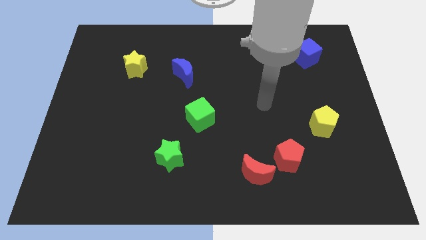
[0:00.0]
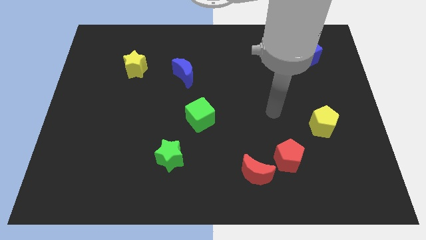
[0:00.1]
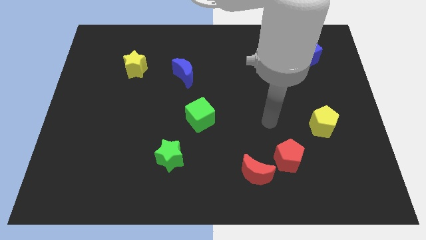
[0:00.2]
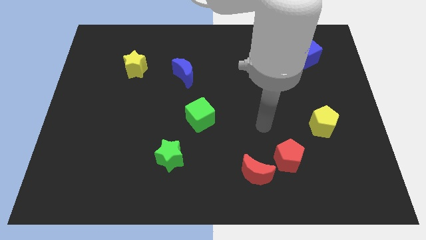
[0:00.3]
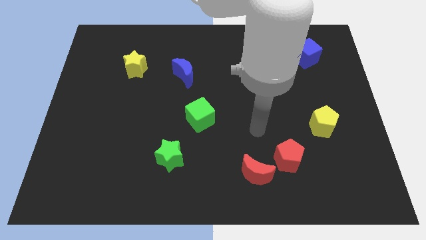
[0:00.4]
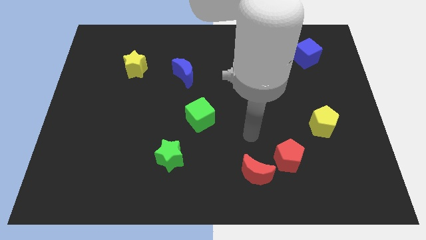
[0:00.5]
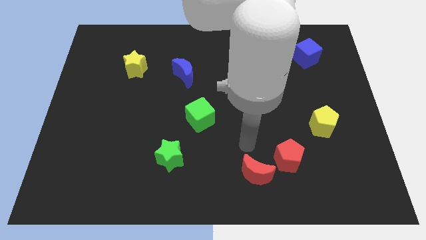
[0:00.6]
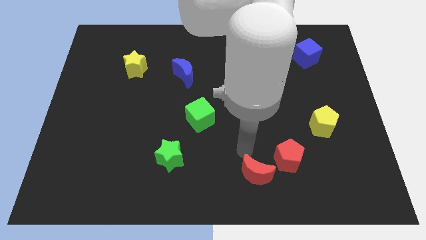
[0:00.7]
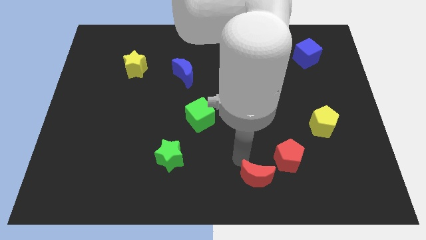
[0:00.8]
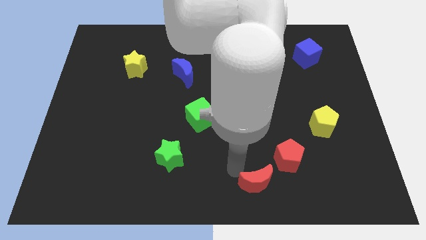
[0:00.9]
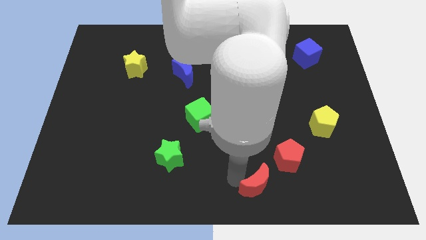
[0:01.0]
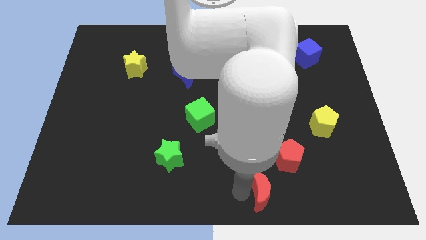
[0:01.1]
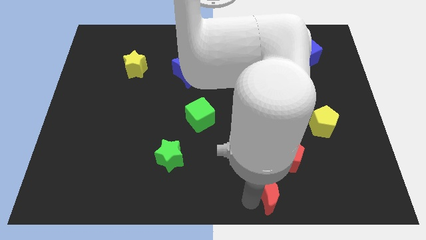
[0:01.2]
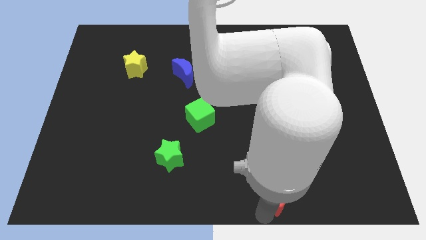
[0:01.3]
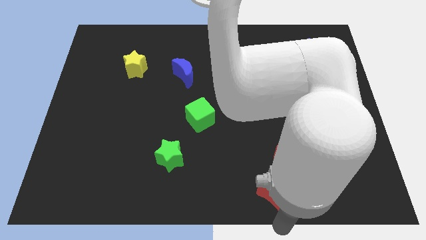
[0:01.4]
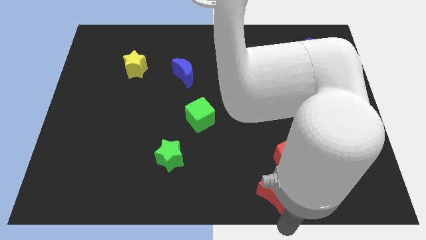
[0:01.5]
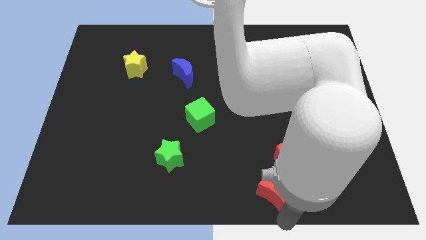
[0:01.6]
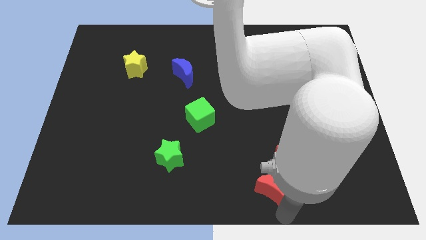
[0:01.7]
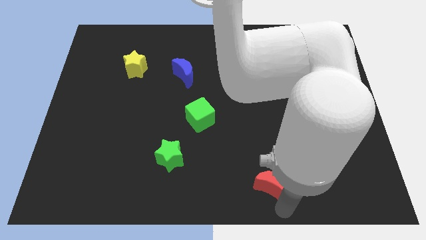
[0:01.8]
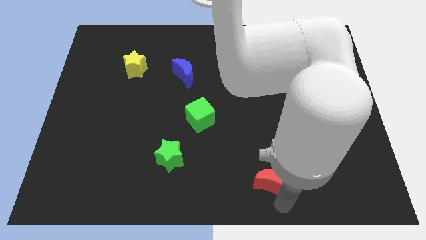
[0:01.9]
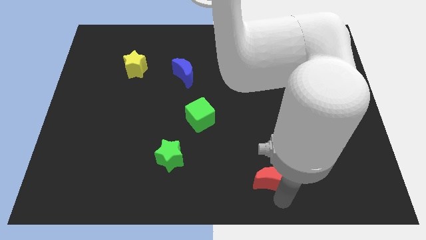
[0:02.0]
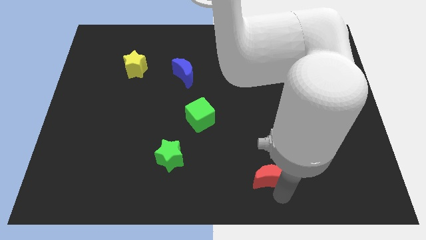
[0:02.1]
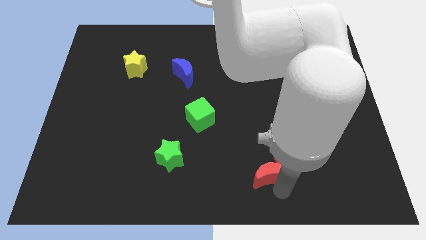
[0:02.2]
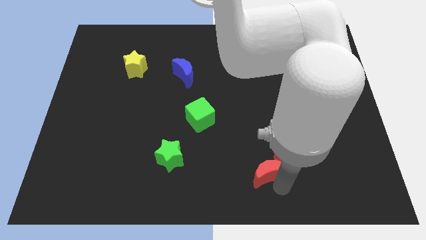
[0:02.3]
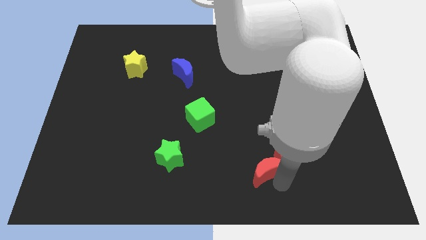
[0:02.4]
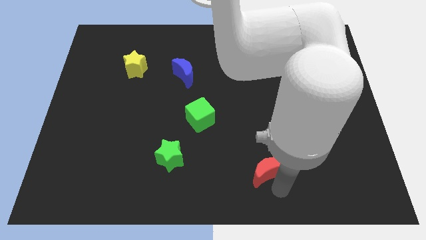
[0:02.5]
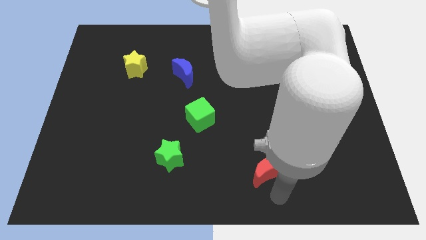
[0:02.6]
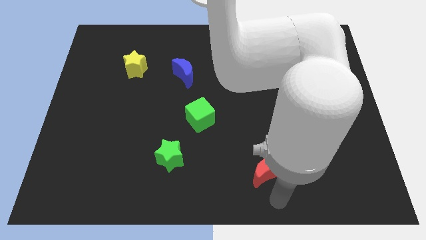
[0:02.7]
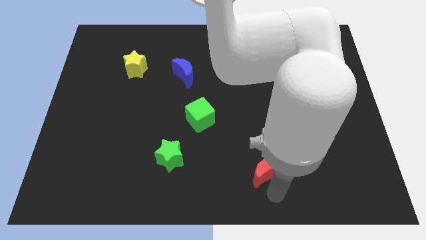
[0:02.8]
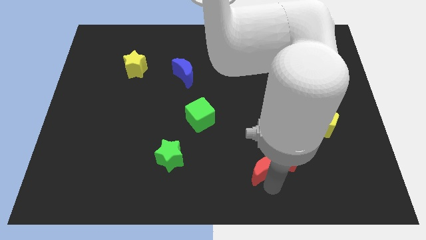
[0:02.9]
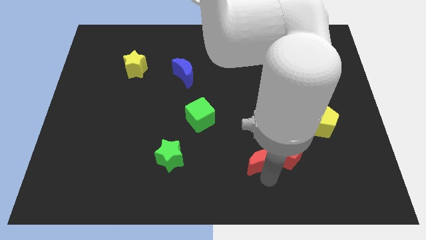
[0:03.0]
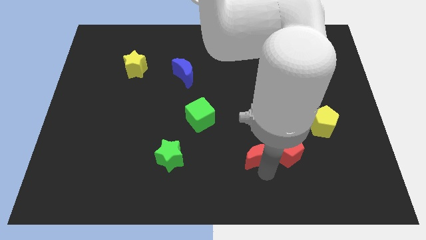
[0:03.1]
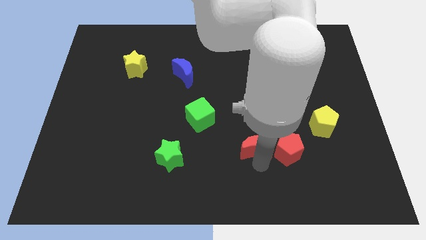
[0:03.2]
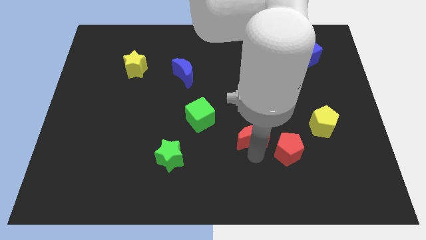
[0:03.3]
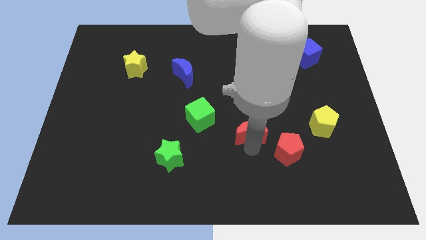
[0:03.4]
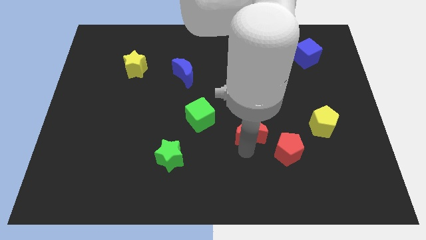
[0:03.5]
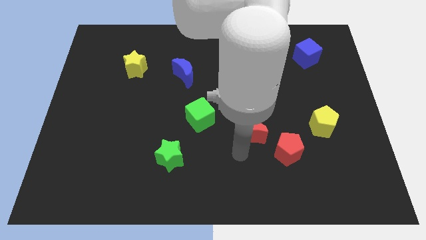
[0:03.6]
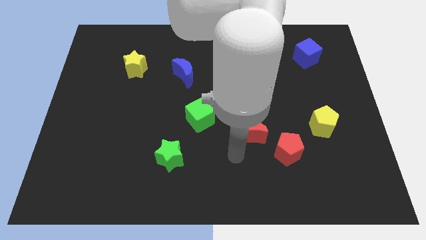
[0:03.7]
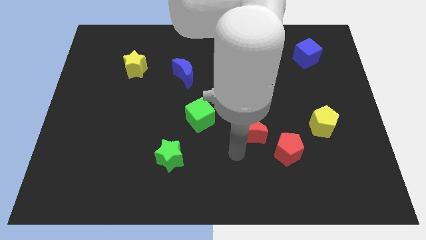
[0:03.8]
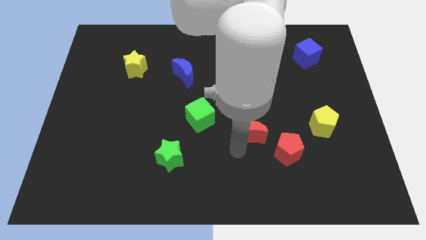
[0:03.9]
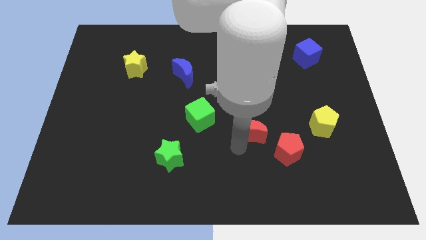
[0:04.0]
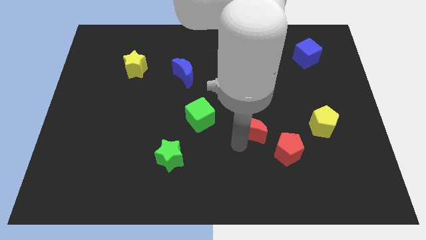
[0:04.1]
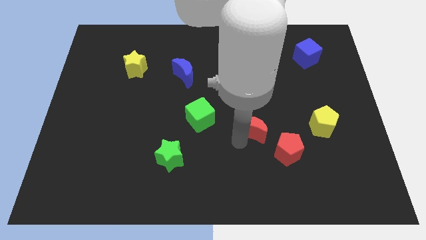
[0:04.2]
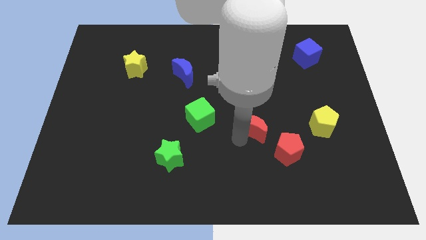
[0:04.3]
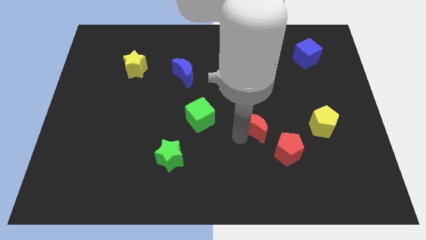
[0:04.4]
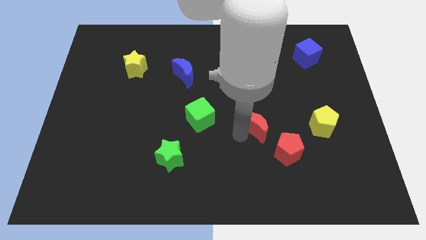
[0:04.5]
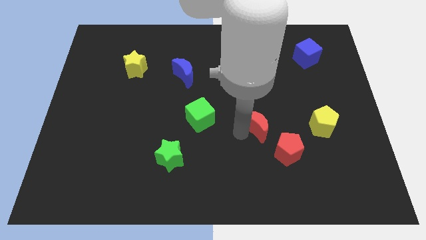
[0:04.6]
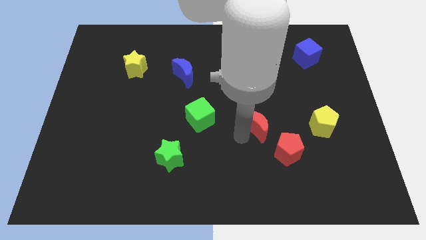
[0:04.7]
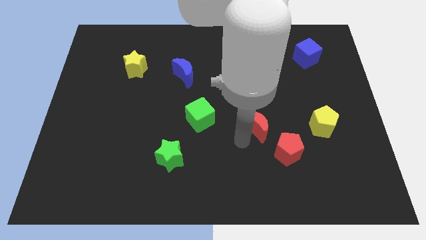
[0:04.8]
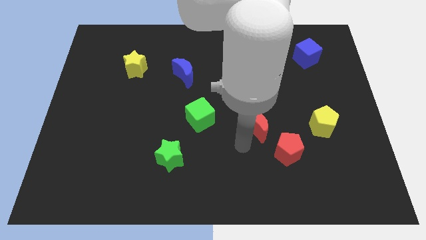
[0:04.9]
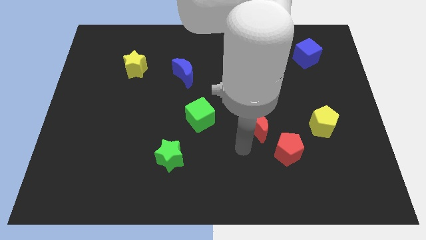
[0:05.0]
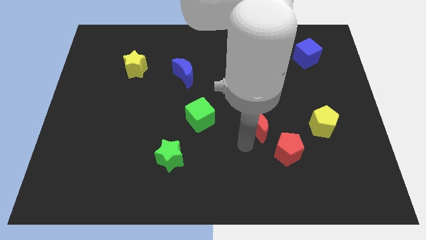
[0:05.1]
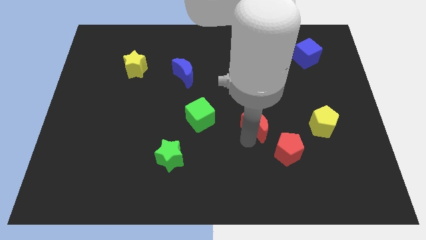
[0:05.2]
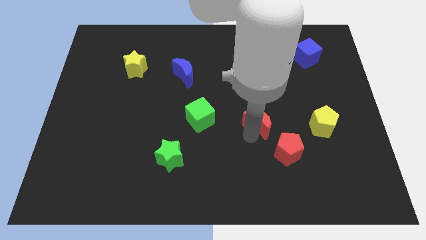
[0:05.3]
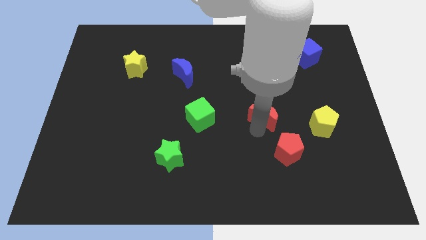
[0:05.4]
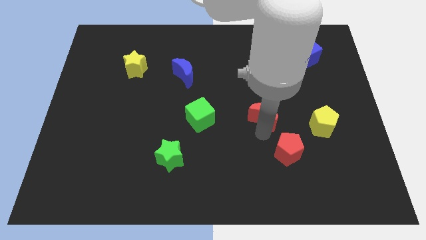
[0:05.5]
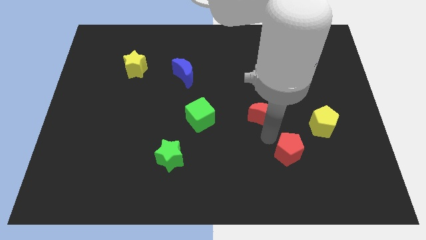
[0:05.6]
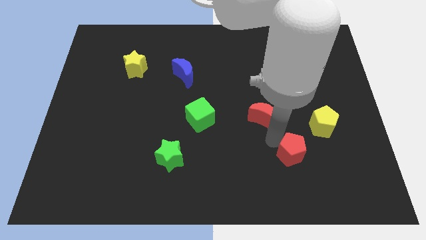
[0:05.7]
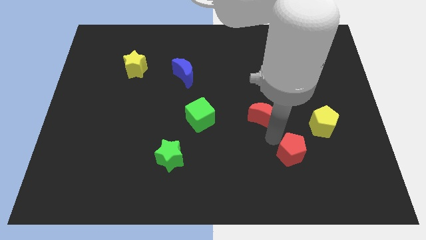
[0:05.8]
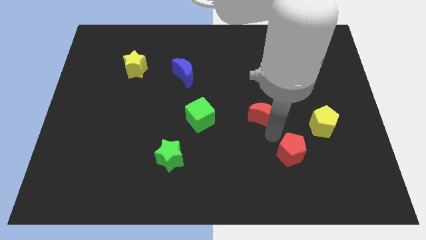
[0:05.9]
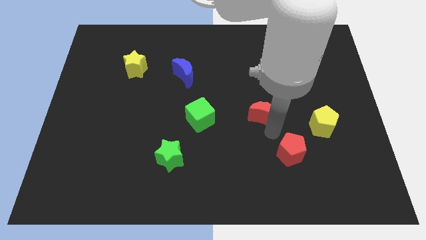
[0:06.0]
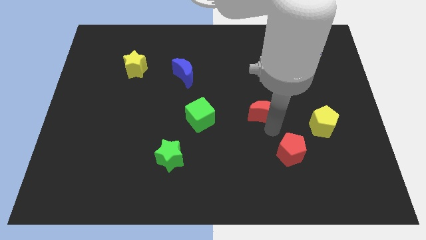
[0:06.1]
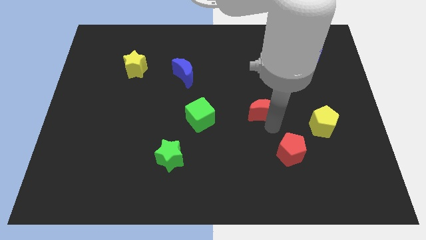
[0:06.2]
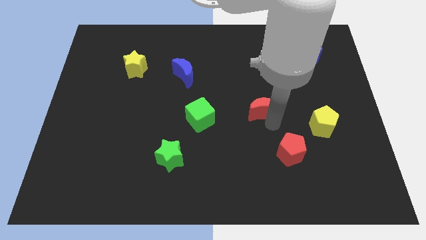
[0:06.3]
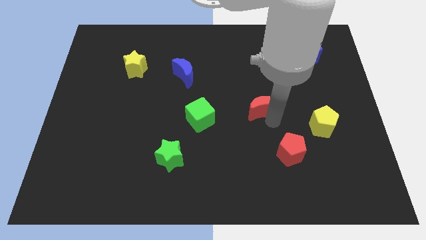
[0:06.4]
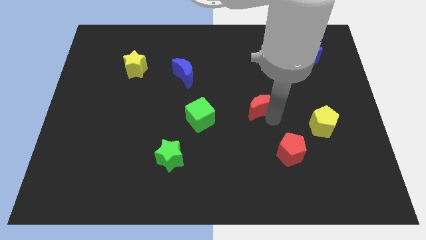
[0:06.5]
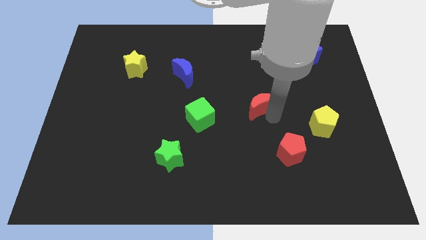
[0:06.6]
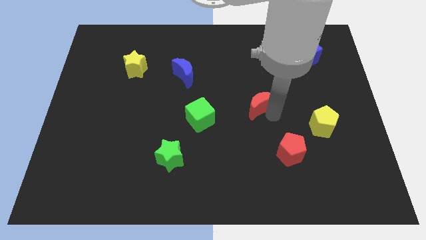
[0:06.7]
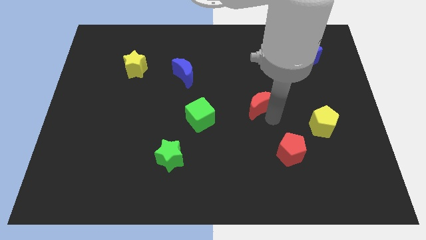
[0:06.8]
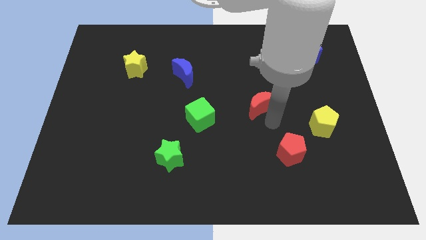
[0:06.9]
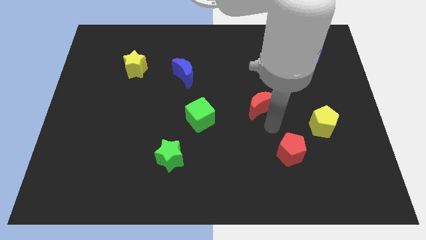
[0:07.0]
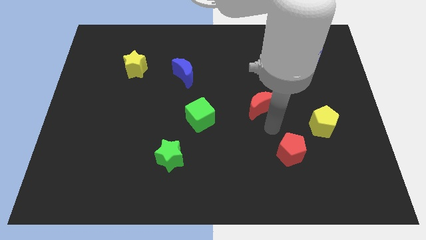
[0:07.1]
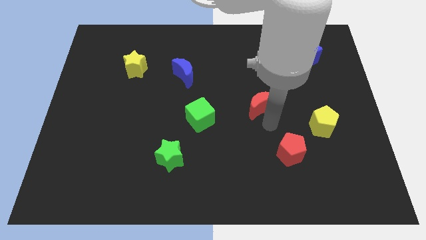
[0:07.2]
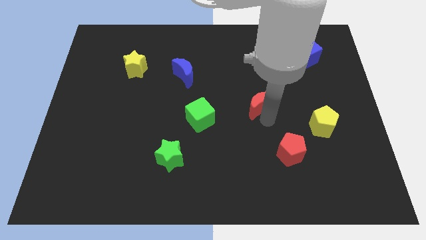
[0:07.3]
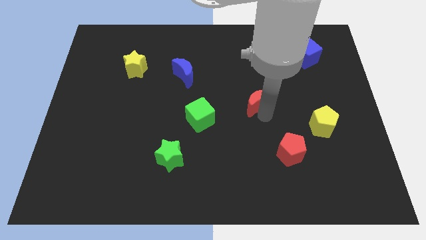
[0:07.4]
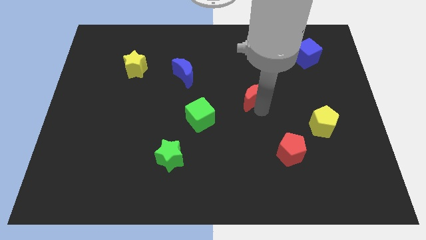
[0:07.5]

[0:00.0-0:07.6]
slide the red moon upwards

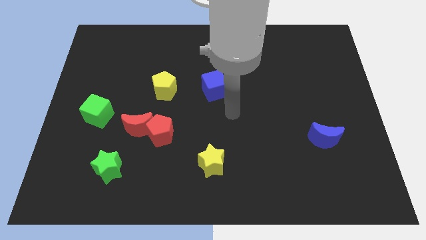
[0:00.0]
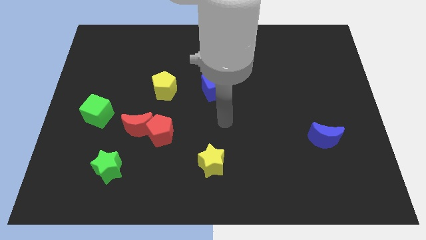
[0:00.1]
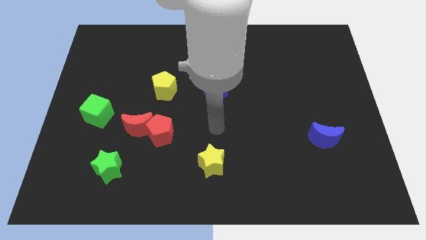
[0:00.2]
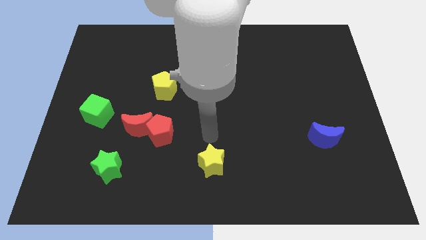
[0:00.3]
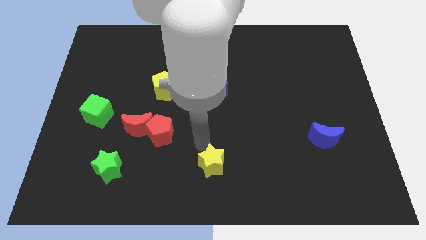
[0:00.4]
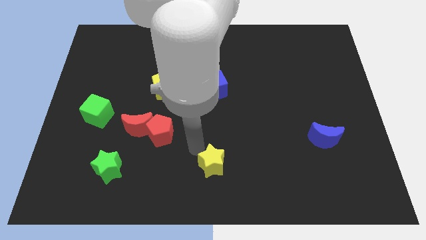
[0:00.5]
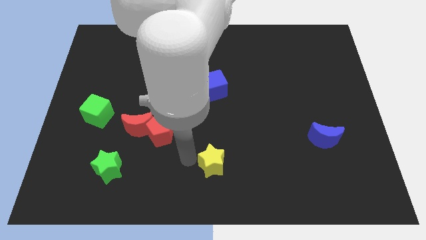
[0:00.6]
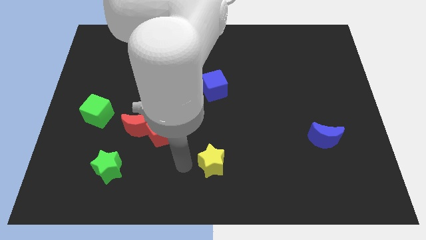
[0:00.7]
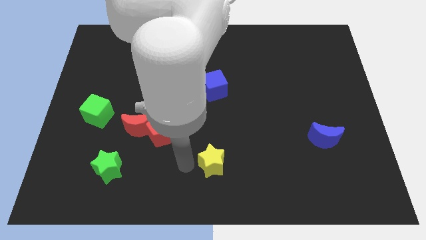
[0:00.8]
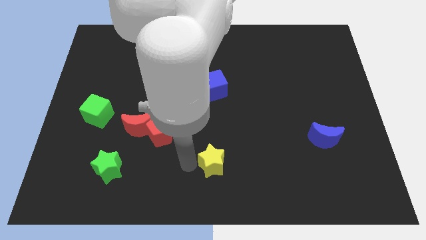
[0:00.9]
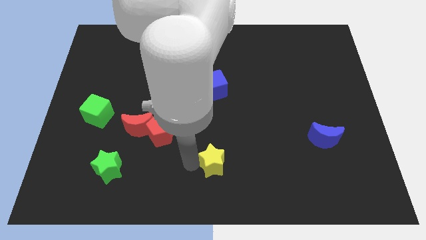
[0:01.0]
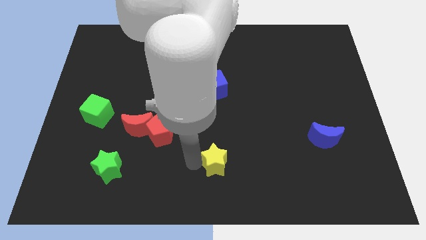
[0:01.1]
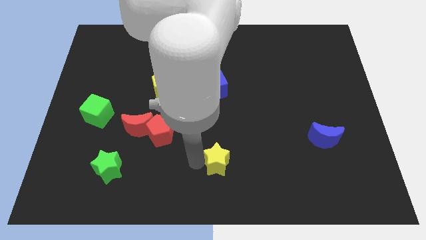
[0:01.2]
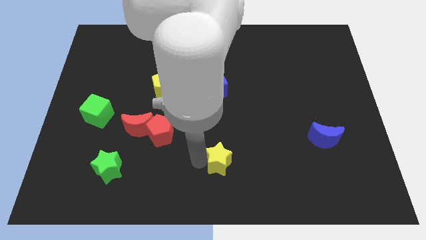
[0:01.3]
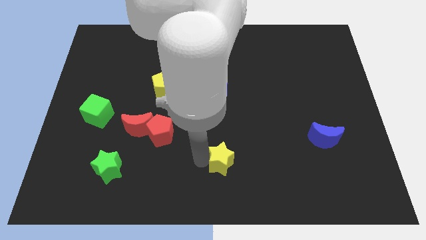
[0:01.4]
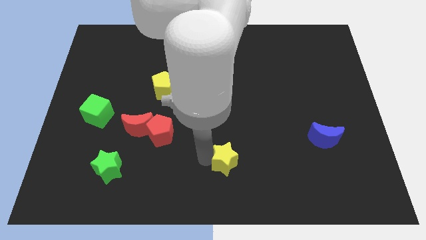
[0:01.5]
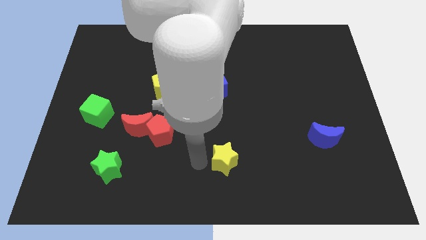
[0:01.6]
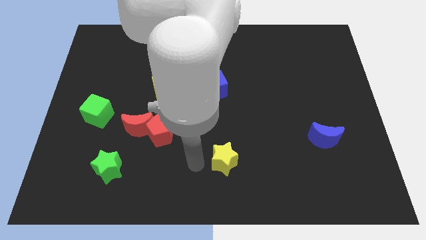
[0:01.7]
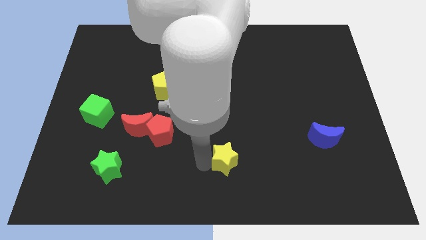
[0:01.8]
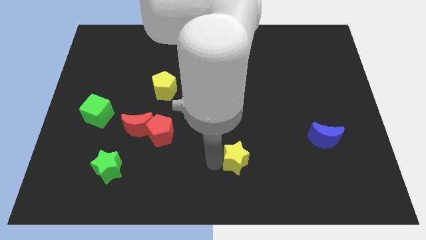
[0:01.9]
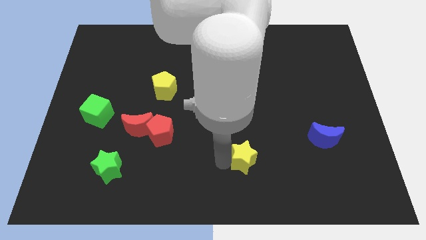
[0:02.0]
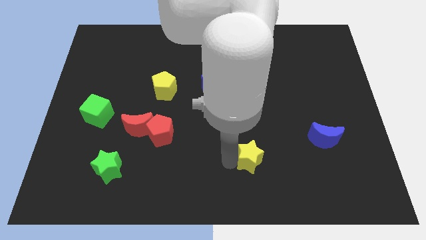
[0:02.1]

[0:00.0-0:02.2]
slide the yellow star right somewhat
